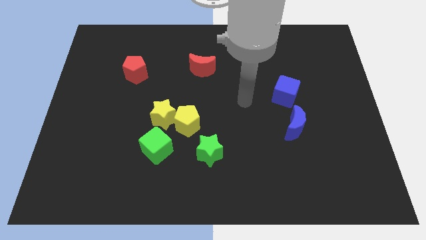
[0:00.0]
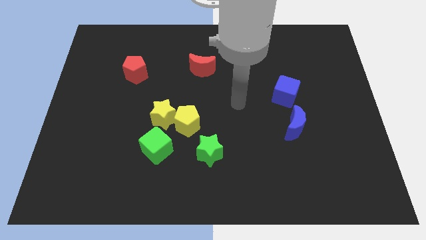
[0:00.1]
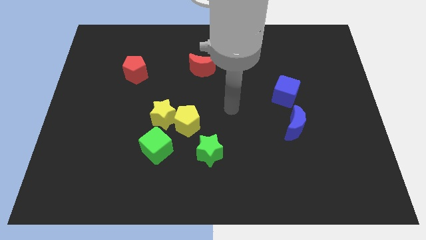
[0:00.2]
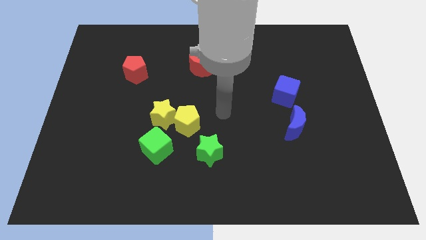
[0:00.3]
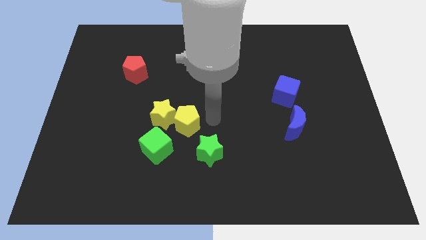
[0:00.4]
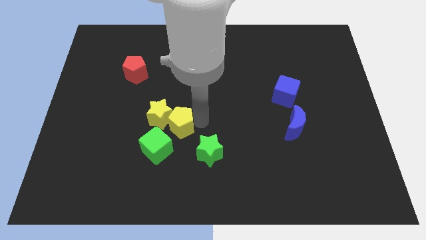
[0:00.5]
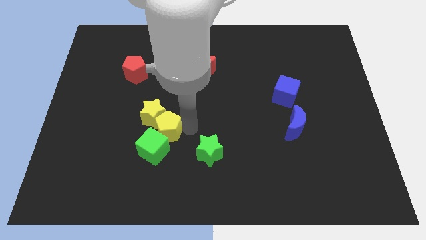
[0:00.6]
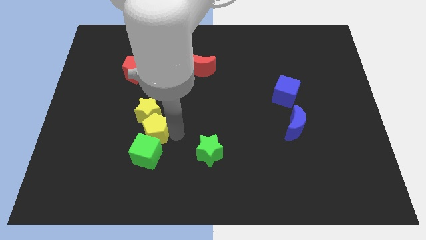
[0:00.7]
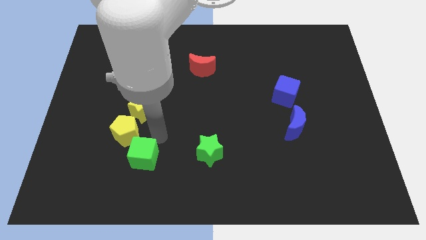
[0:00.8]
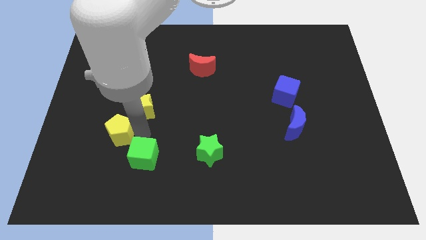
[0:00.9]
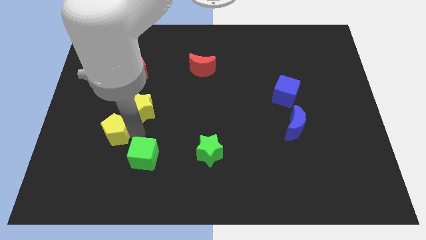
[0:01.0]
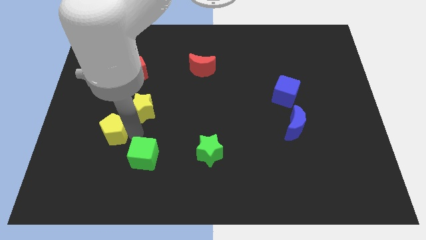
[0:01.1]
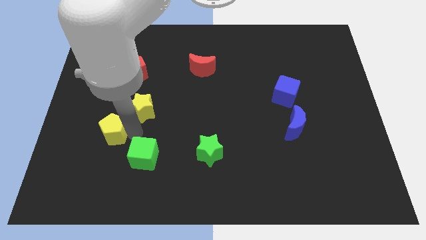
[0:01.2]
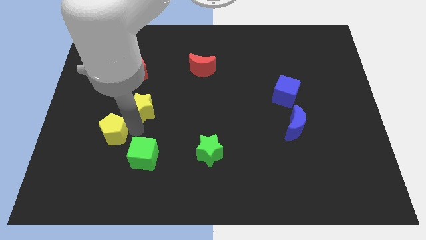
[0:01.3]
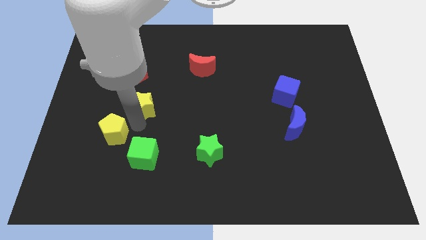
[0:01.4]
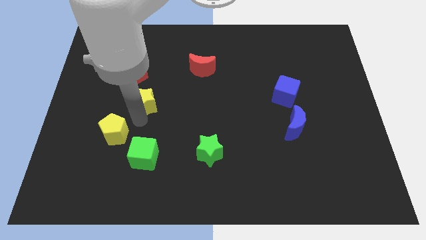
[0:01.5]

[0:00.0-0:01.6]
separate the yellow star from the yellow pentagon and green cube

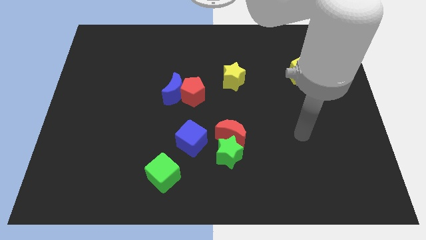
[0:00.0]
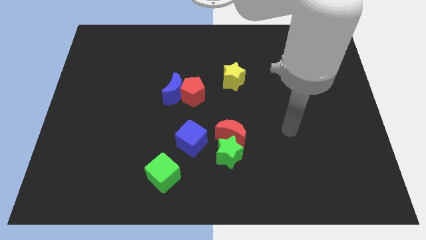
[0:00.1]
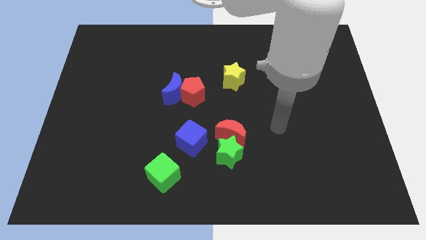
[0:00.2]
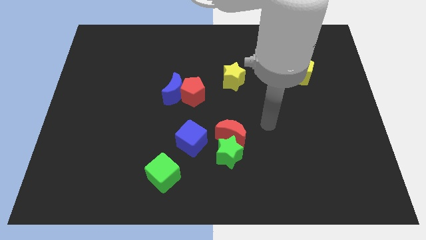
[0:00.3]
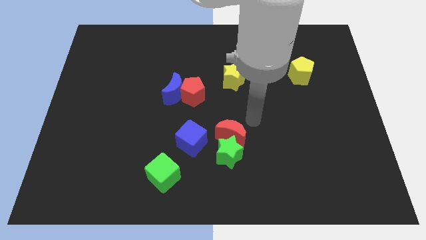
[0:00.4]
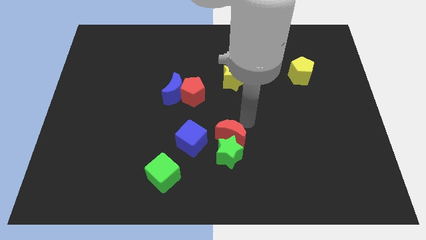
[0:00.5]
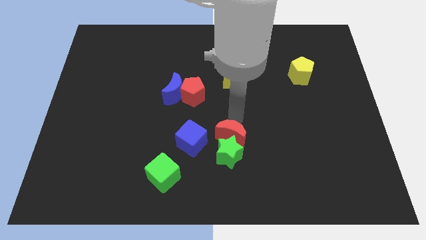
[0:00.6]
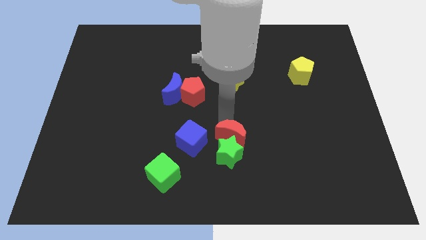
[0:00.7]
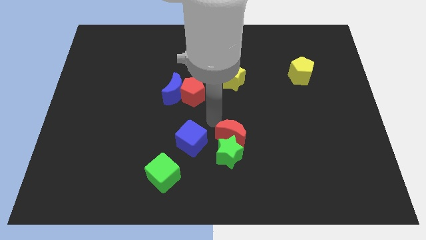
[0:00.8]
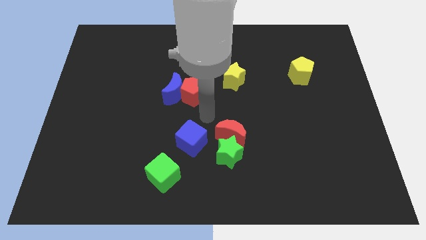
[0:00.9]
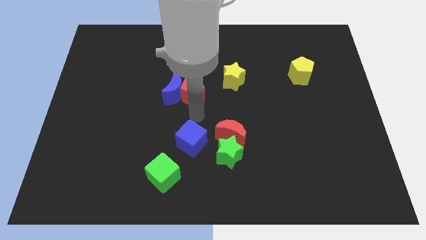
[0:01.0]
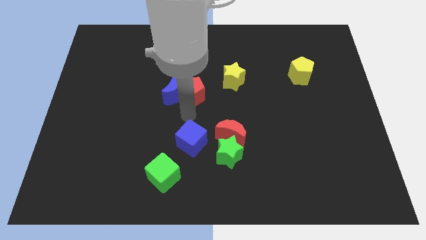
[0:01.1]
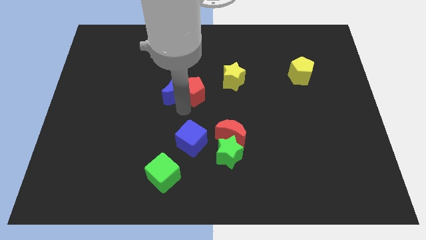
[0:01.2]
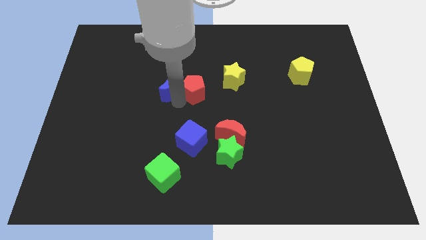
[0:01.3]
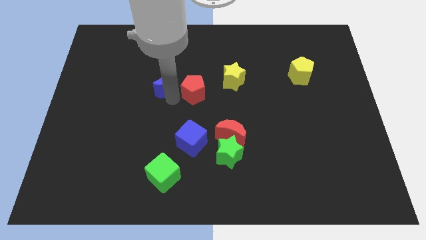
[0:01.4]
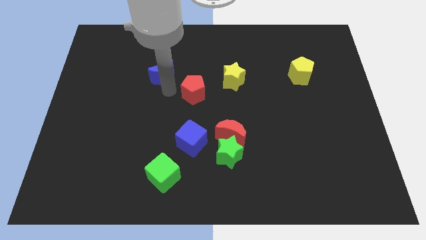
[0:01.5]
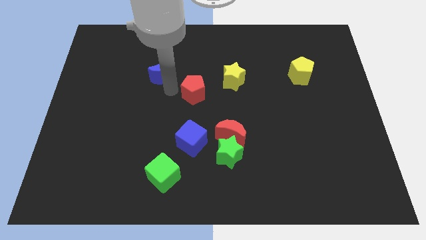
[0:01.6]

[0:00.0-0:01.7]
pull the red pentagon apart from the blue moon

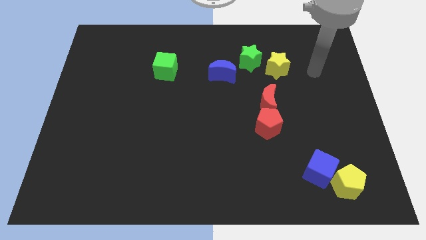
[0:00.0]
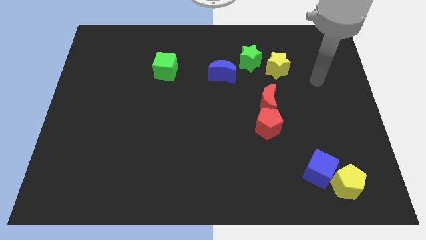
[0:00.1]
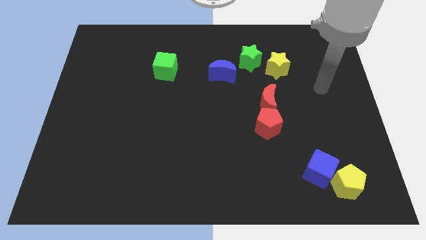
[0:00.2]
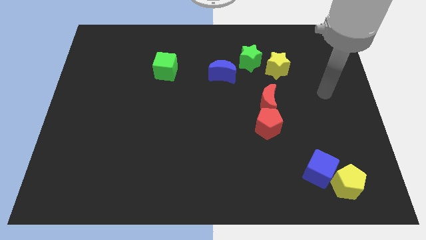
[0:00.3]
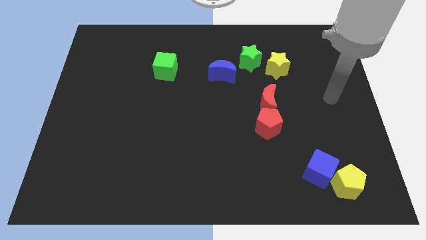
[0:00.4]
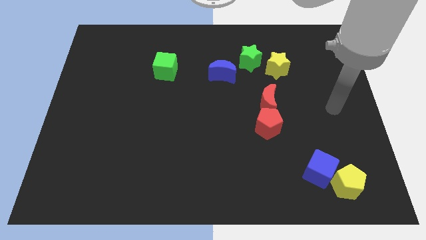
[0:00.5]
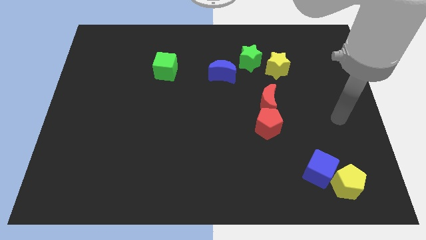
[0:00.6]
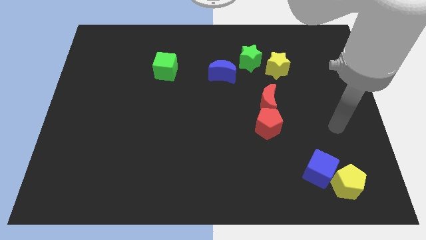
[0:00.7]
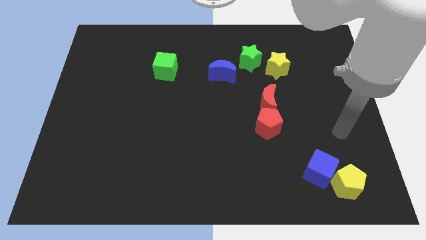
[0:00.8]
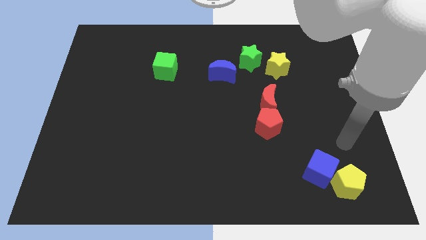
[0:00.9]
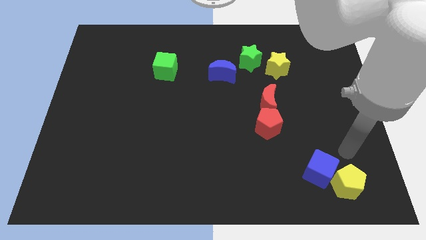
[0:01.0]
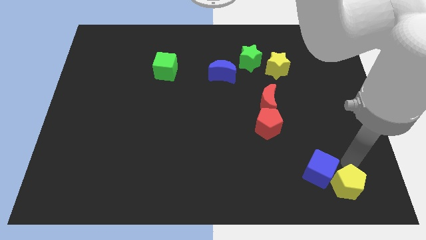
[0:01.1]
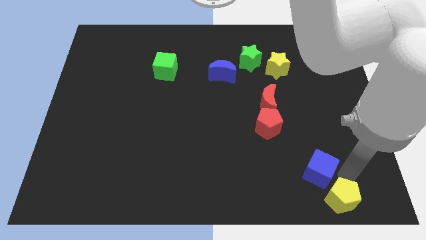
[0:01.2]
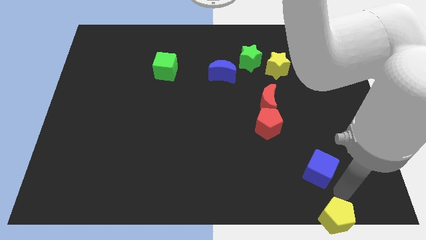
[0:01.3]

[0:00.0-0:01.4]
separate the blue cube from the yellow pentagon

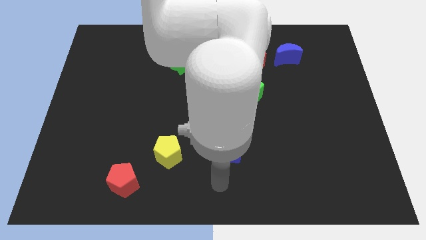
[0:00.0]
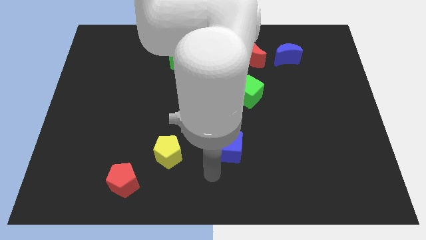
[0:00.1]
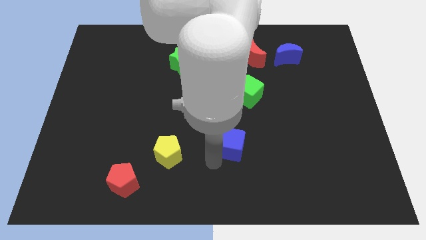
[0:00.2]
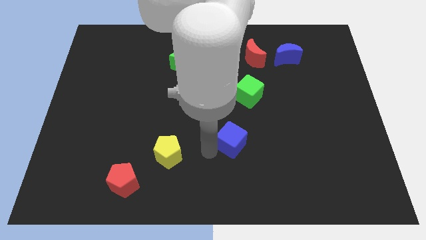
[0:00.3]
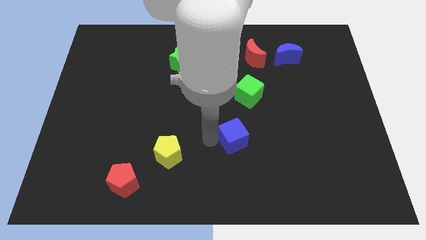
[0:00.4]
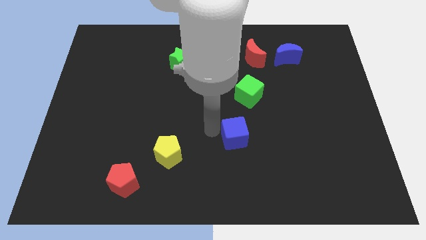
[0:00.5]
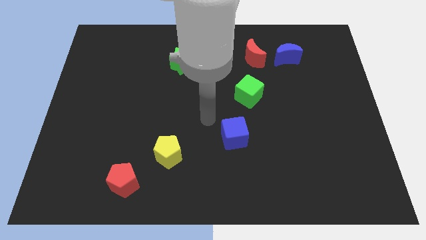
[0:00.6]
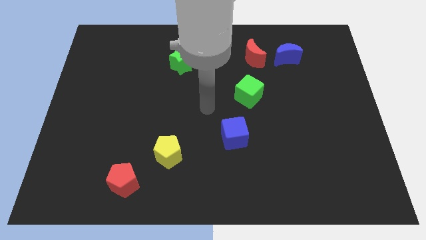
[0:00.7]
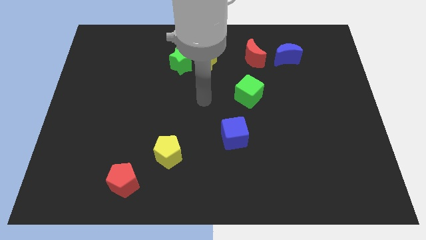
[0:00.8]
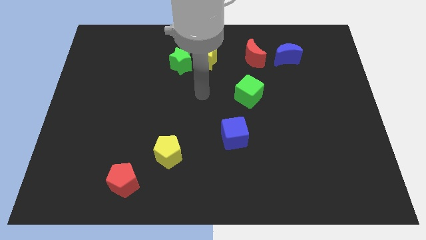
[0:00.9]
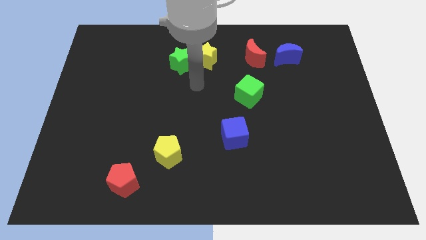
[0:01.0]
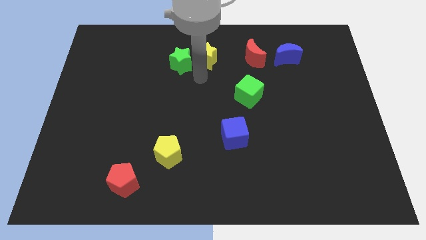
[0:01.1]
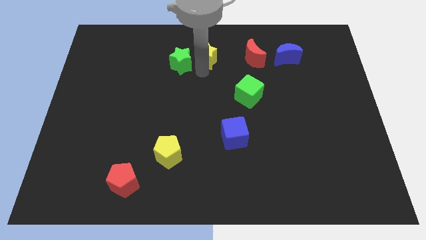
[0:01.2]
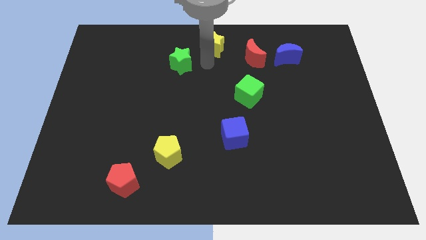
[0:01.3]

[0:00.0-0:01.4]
separate the green star from the yellow star

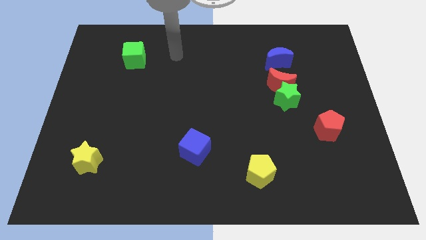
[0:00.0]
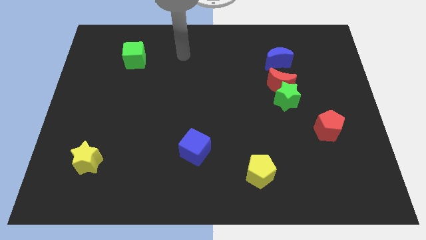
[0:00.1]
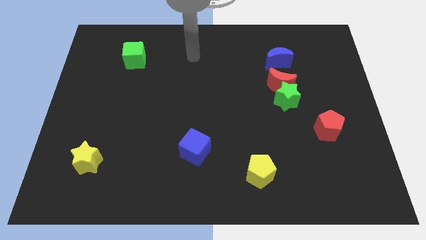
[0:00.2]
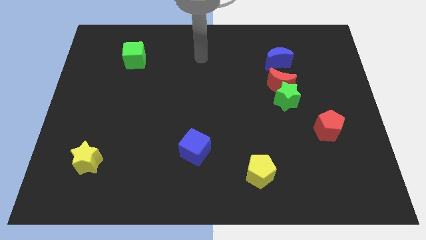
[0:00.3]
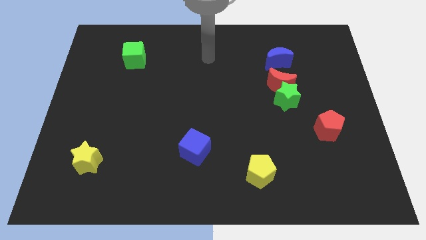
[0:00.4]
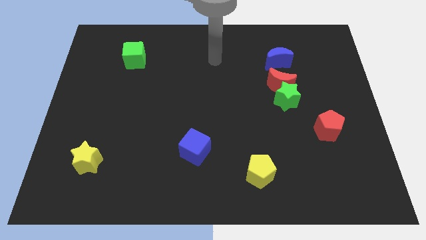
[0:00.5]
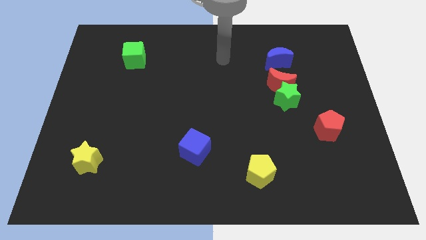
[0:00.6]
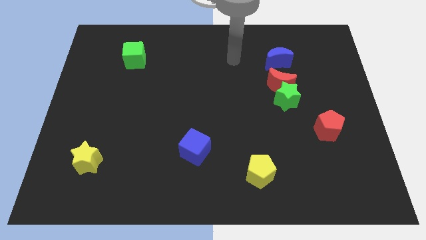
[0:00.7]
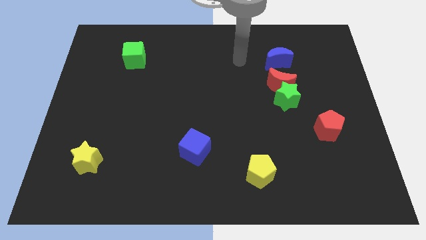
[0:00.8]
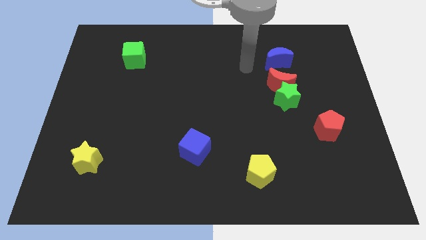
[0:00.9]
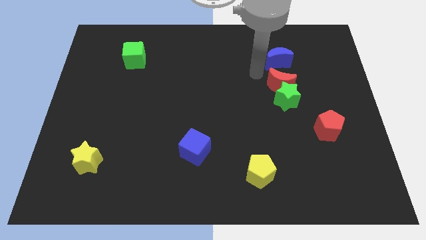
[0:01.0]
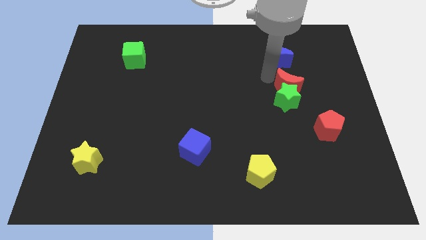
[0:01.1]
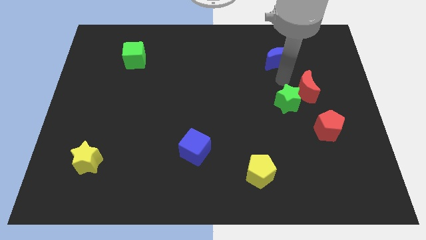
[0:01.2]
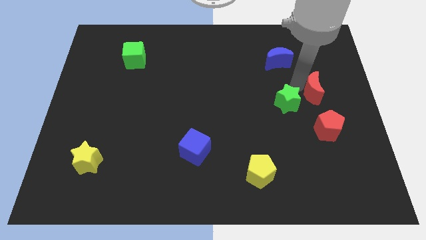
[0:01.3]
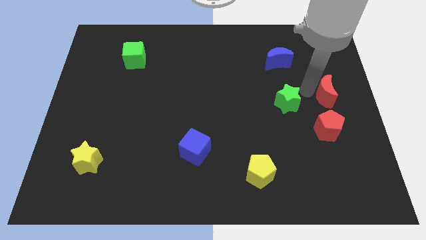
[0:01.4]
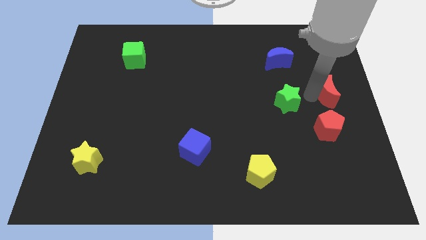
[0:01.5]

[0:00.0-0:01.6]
move the green star away from the red moon

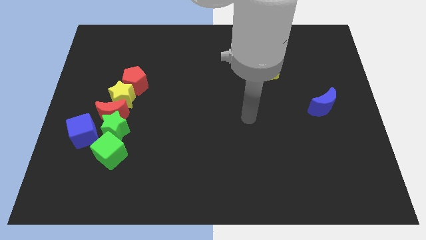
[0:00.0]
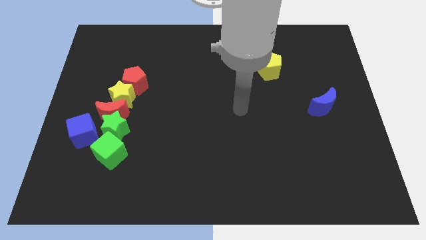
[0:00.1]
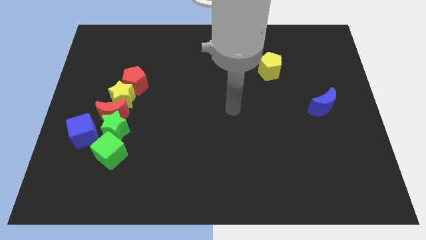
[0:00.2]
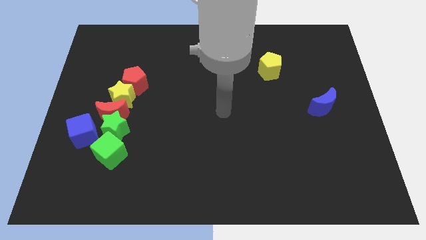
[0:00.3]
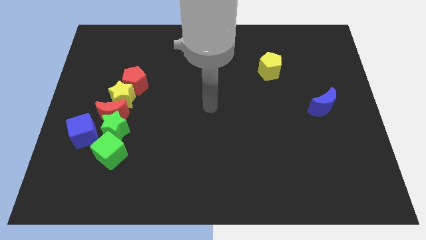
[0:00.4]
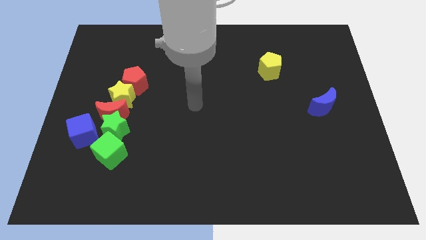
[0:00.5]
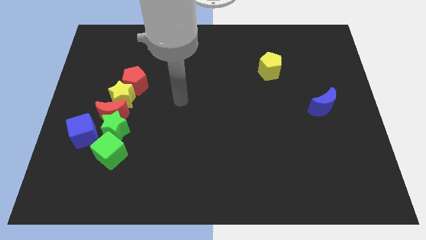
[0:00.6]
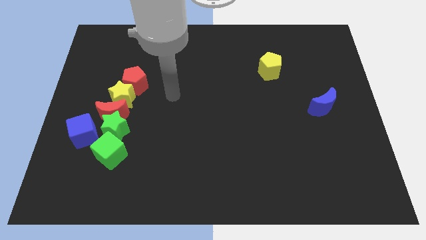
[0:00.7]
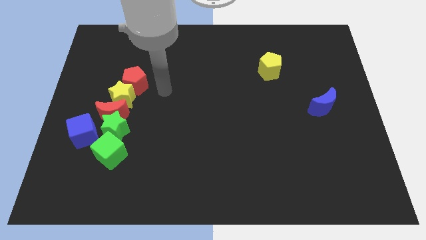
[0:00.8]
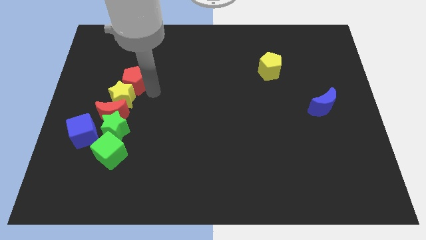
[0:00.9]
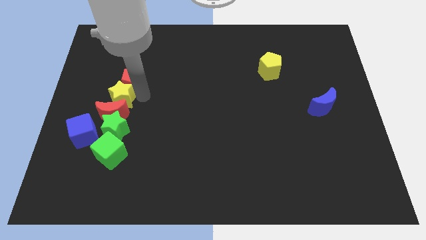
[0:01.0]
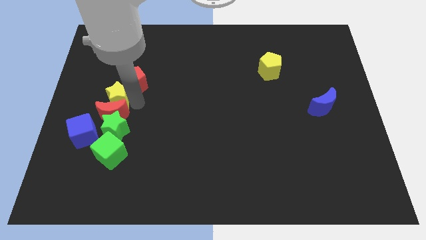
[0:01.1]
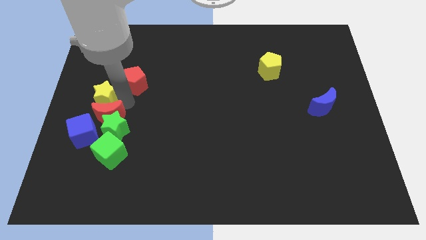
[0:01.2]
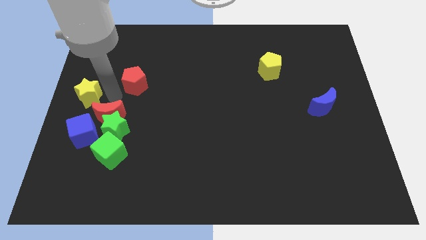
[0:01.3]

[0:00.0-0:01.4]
move the red pentagon away from the yellow star

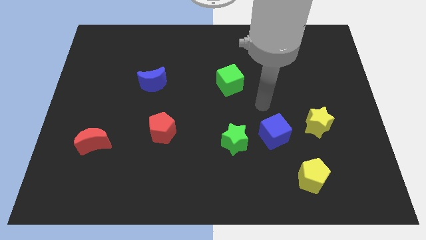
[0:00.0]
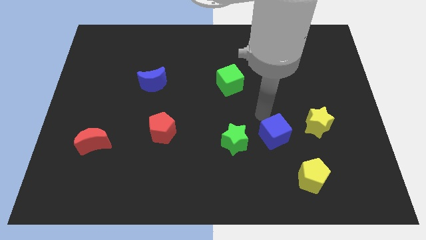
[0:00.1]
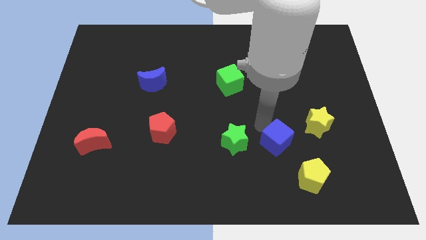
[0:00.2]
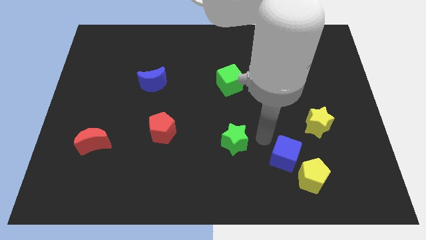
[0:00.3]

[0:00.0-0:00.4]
pull the green star apart from the blue cube

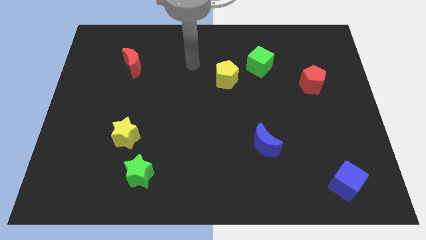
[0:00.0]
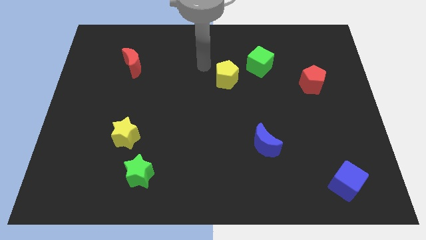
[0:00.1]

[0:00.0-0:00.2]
pull the green cube apart from the yellow pentagon
